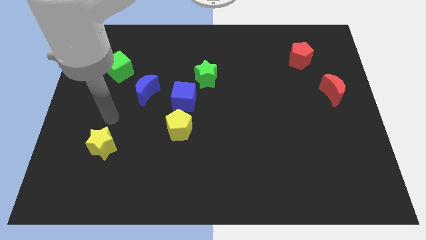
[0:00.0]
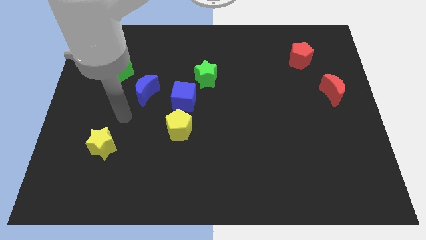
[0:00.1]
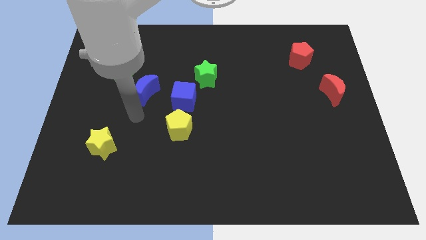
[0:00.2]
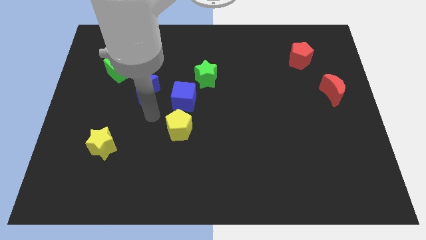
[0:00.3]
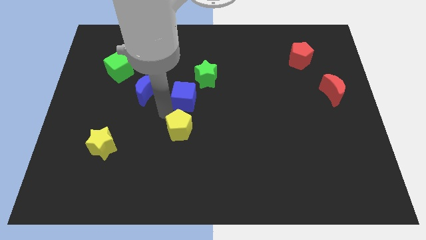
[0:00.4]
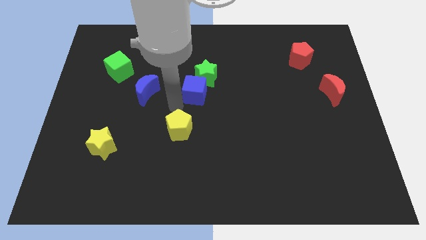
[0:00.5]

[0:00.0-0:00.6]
move the yellow pentagon away from the blue cube

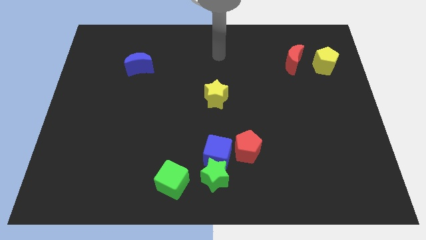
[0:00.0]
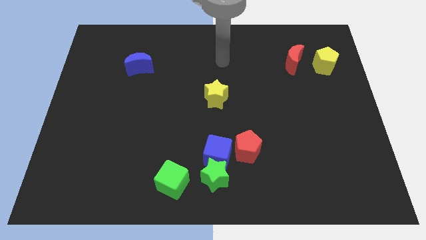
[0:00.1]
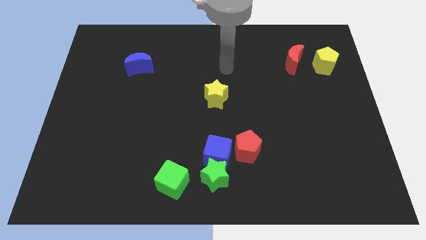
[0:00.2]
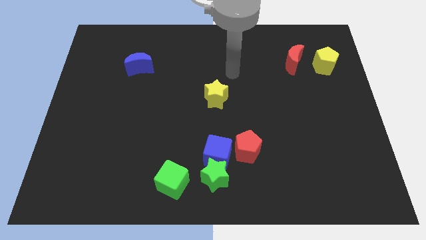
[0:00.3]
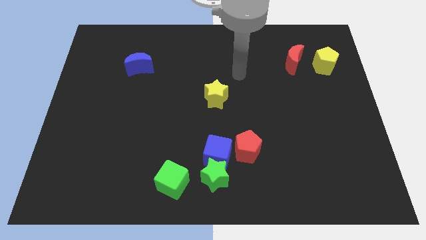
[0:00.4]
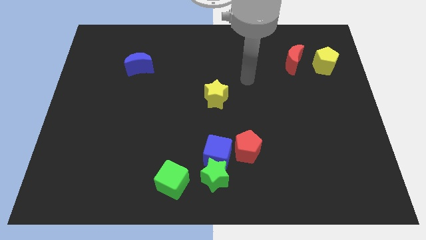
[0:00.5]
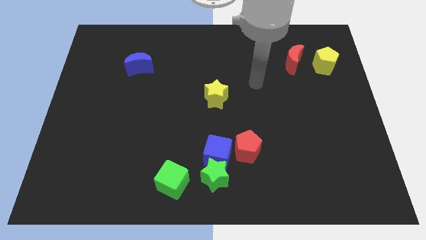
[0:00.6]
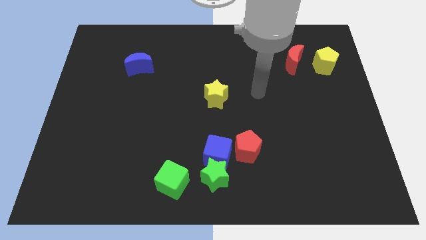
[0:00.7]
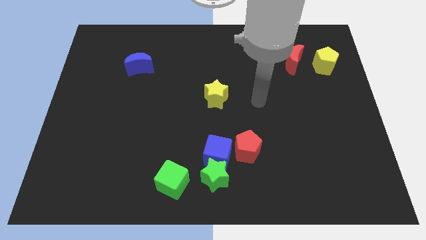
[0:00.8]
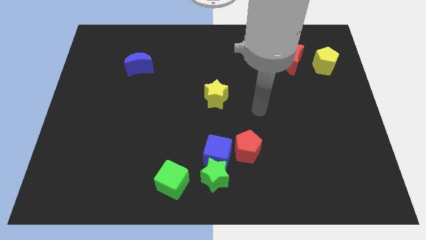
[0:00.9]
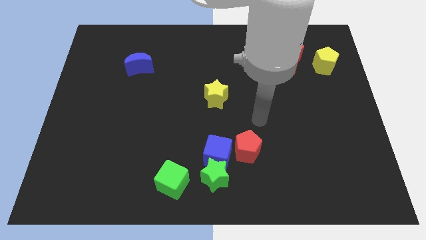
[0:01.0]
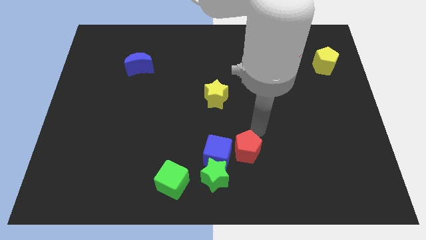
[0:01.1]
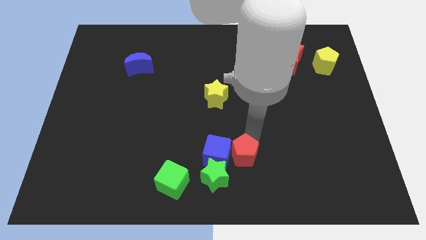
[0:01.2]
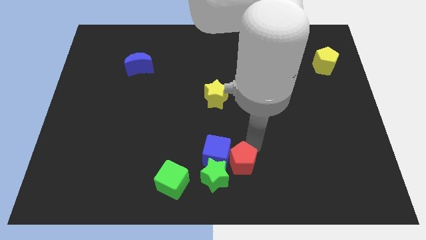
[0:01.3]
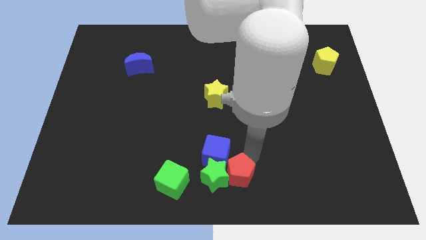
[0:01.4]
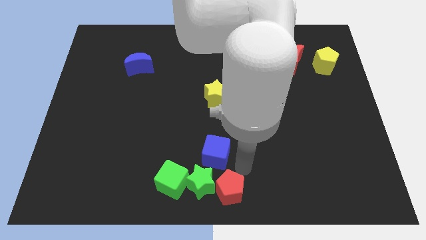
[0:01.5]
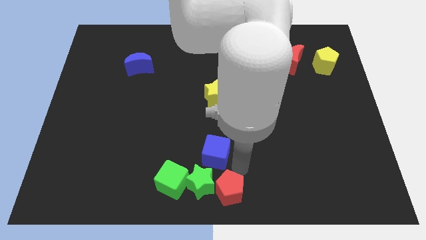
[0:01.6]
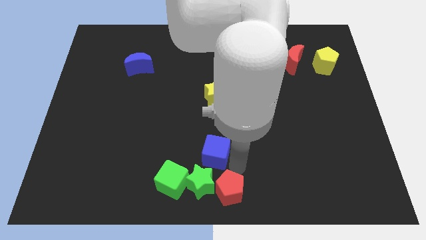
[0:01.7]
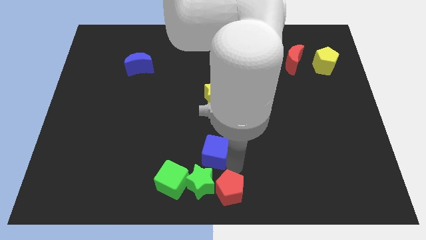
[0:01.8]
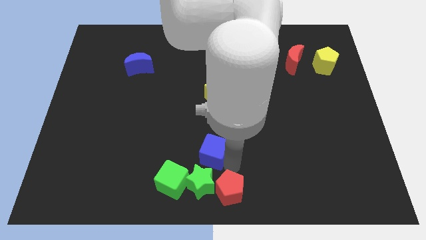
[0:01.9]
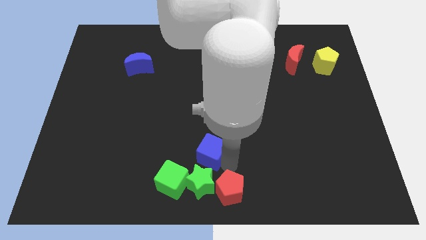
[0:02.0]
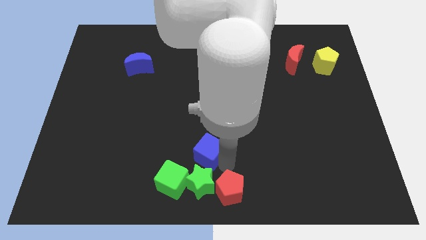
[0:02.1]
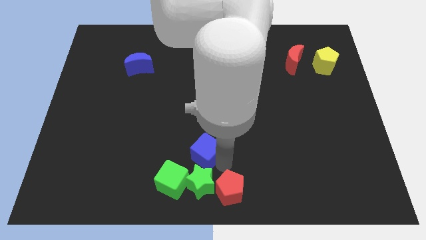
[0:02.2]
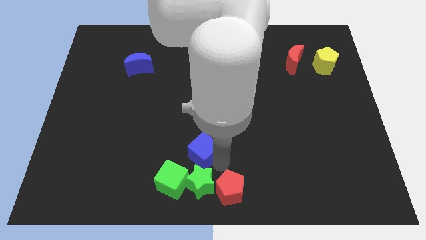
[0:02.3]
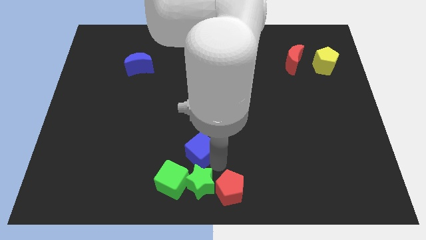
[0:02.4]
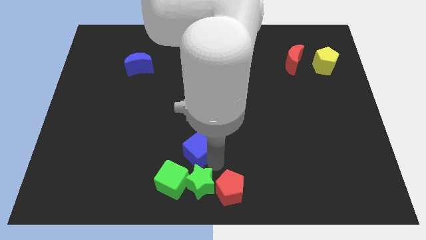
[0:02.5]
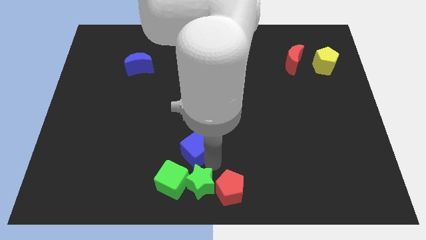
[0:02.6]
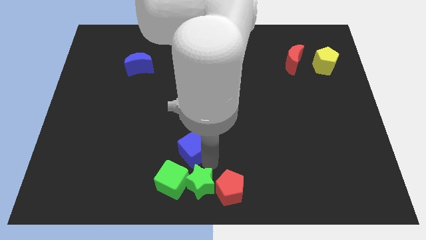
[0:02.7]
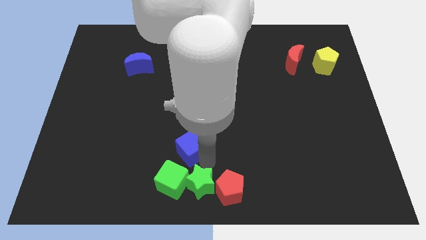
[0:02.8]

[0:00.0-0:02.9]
move the blue cube away from the green star and red pentagon

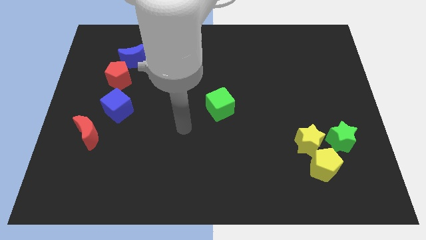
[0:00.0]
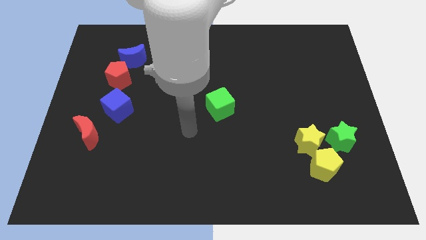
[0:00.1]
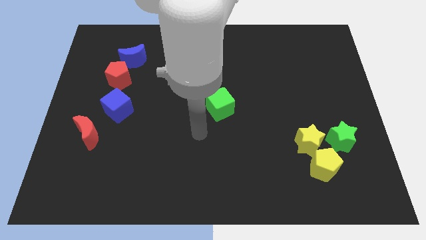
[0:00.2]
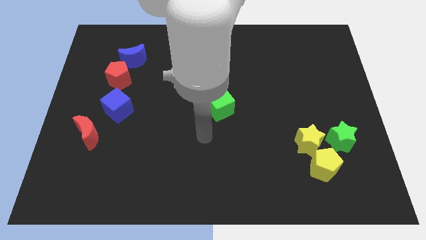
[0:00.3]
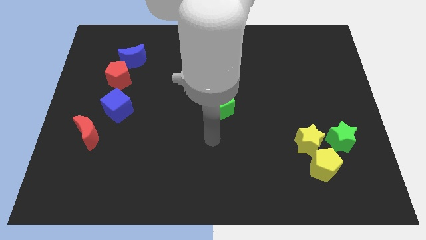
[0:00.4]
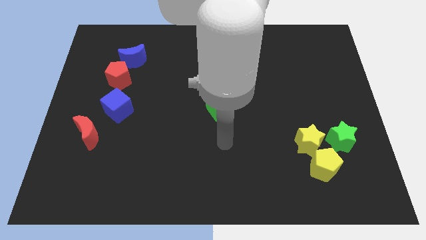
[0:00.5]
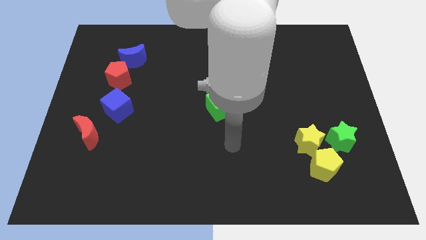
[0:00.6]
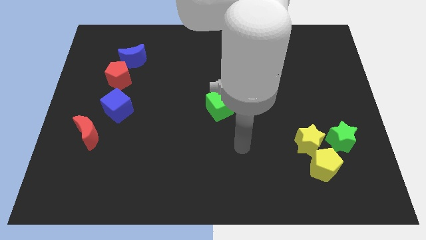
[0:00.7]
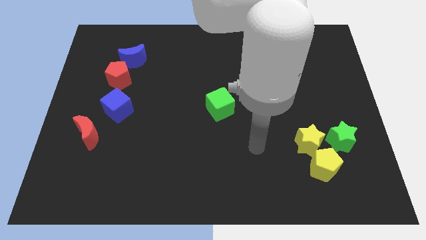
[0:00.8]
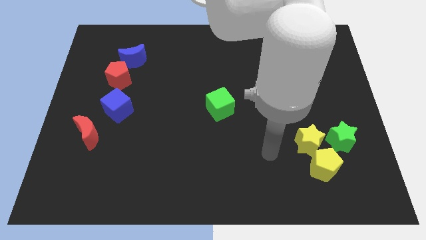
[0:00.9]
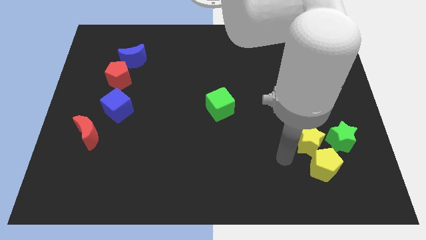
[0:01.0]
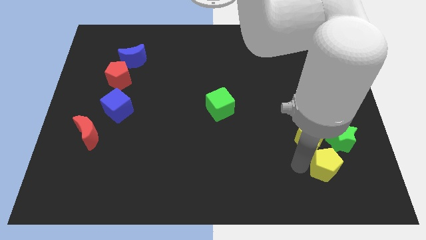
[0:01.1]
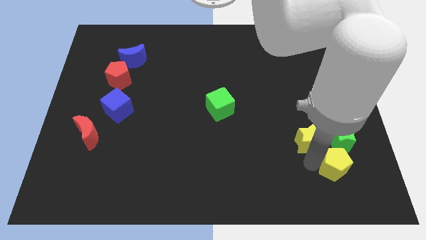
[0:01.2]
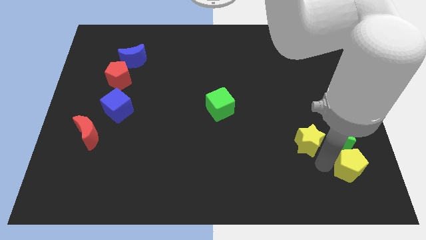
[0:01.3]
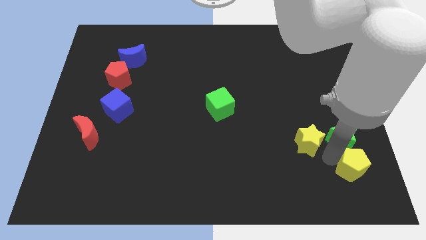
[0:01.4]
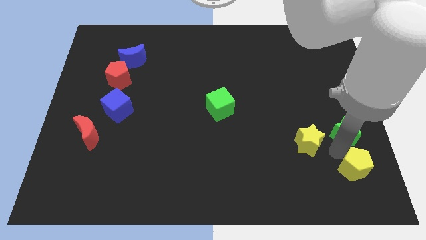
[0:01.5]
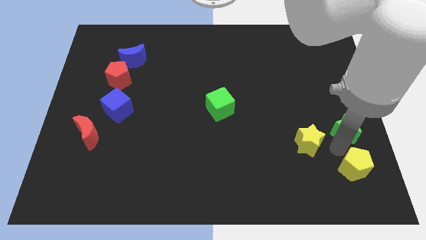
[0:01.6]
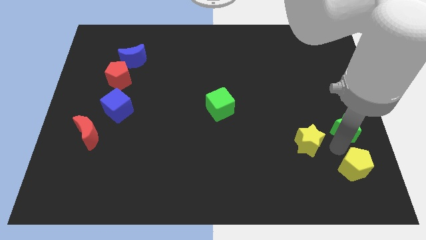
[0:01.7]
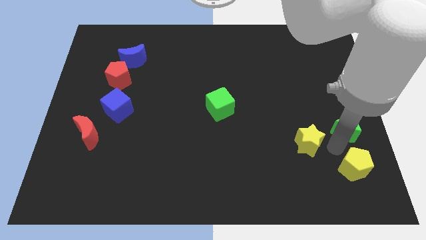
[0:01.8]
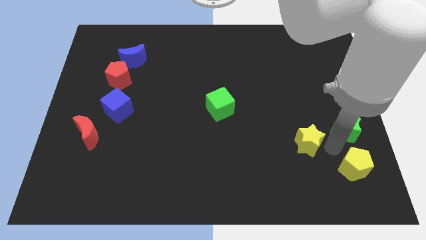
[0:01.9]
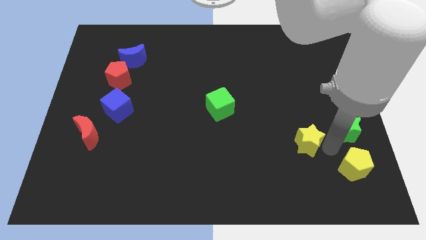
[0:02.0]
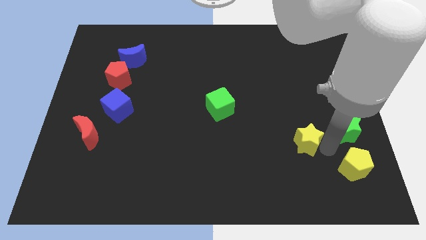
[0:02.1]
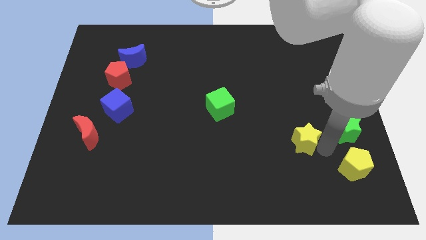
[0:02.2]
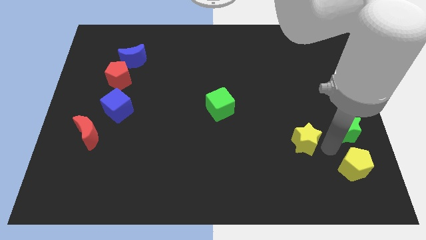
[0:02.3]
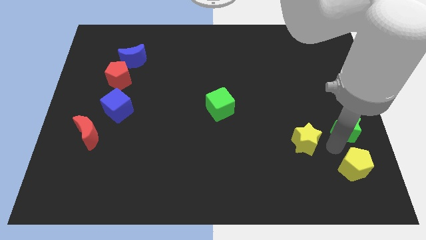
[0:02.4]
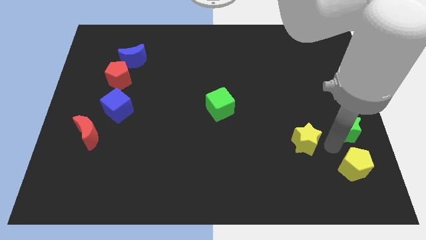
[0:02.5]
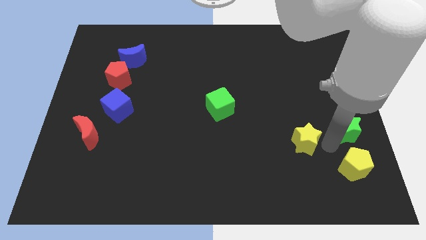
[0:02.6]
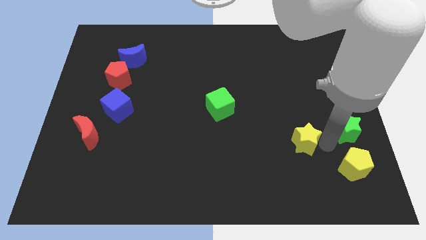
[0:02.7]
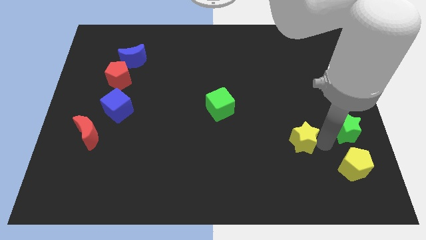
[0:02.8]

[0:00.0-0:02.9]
move the yellow star away from the yellow pentagon and green star

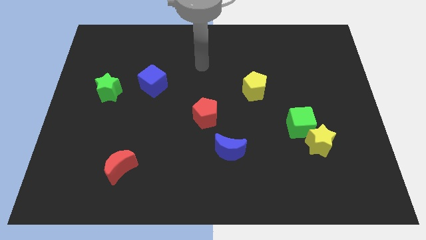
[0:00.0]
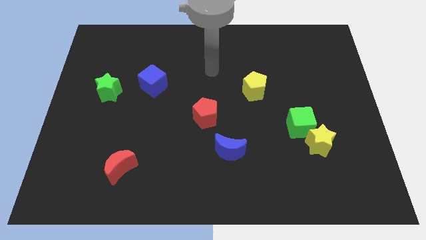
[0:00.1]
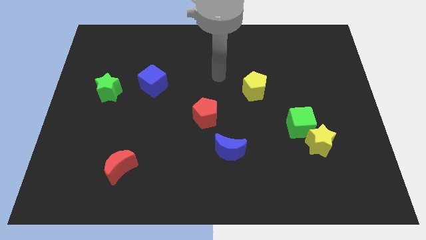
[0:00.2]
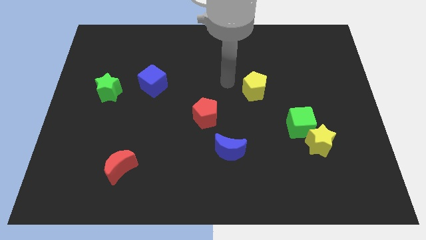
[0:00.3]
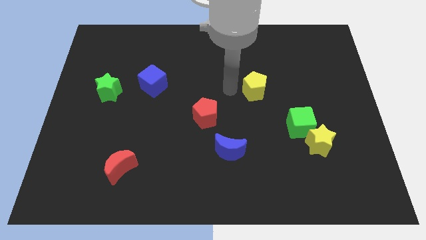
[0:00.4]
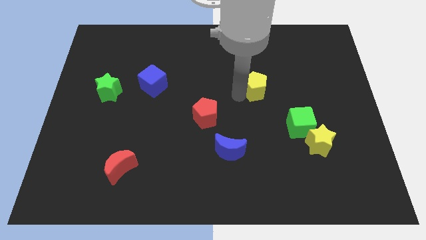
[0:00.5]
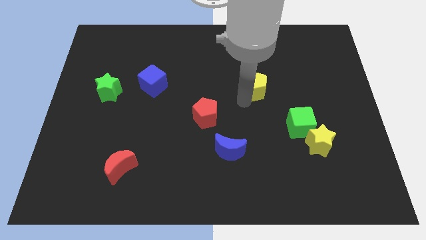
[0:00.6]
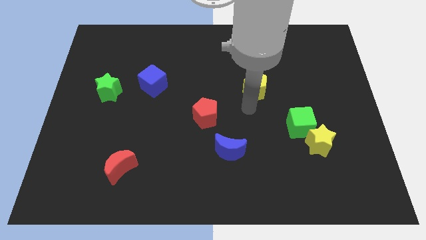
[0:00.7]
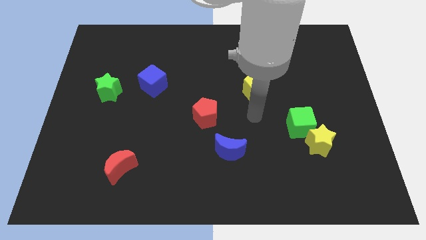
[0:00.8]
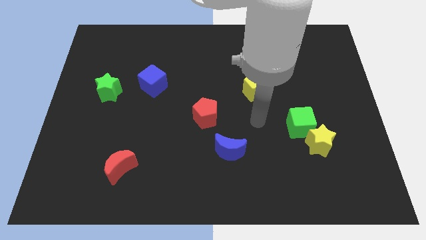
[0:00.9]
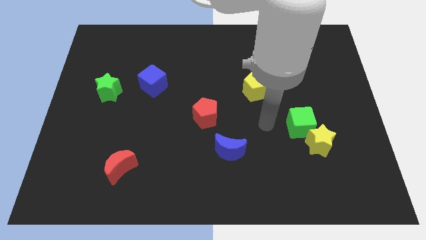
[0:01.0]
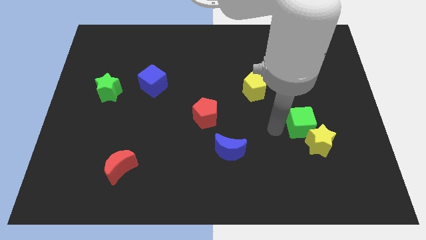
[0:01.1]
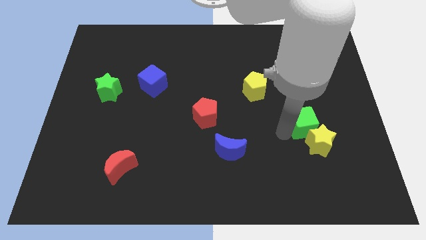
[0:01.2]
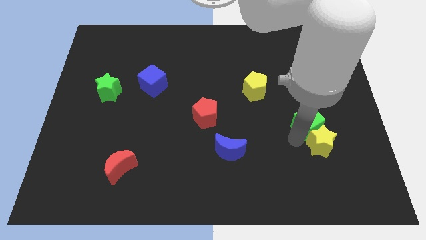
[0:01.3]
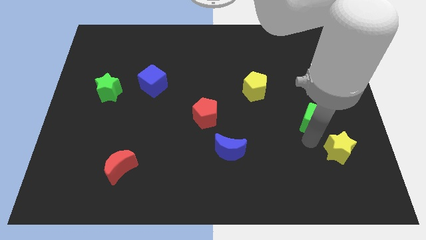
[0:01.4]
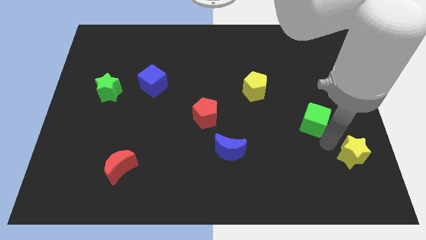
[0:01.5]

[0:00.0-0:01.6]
move the green cube away from the yellow star

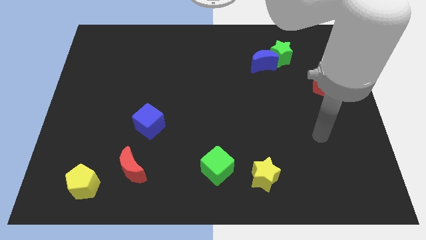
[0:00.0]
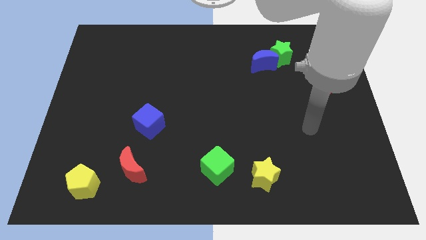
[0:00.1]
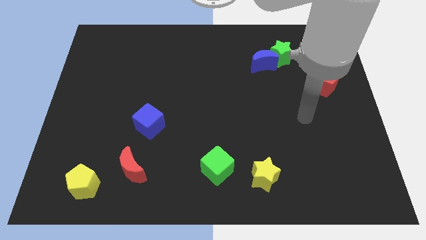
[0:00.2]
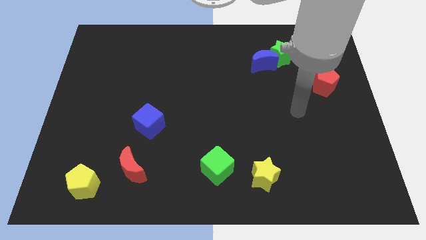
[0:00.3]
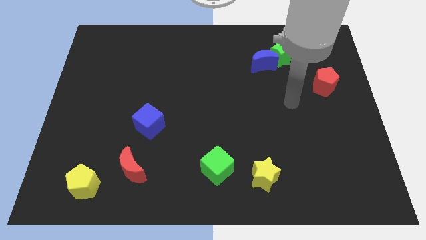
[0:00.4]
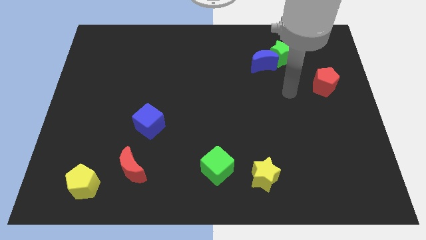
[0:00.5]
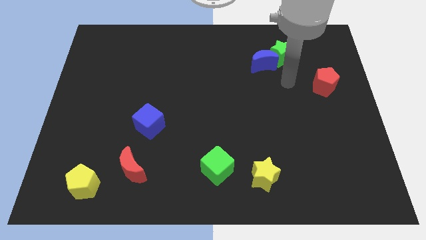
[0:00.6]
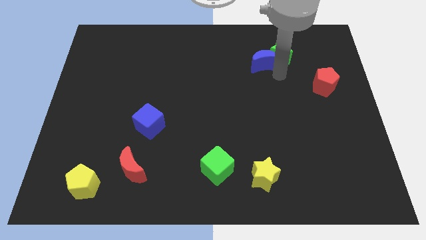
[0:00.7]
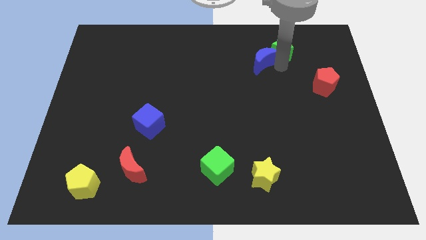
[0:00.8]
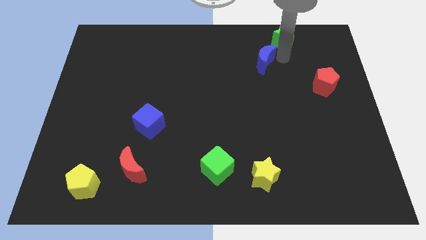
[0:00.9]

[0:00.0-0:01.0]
separate the blue moon from the green star

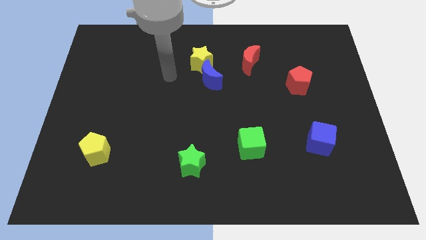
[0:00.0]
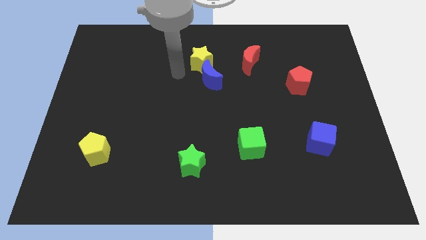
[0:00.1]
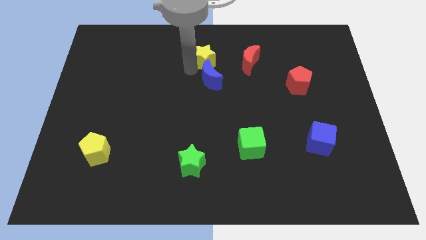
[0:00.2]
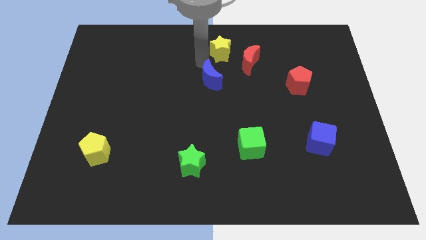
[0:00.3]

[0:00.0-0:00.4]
move the blue moon away from the yellow star
